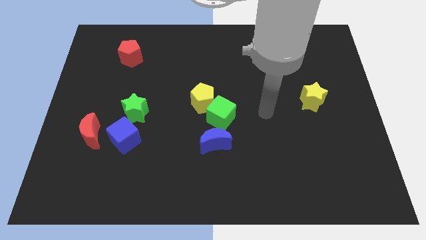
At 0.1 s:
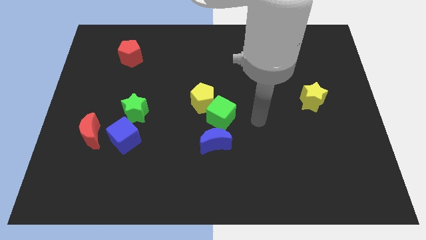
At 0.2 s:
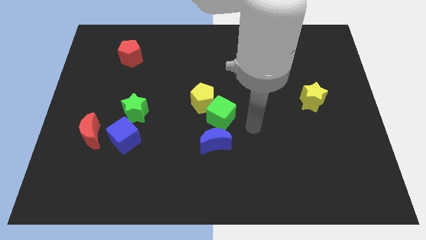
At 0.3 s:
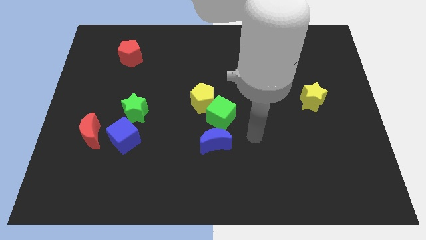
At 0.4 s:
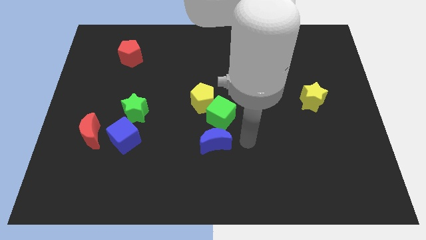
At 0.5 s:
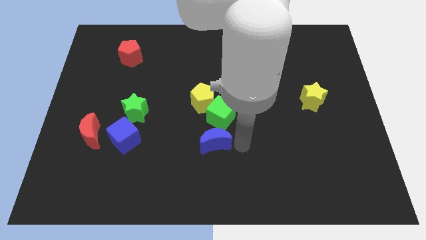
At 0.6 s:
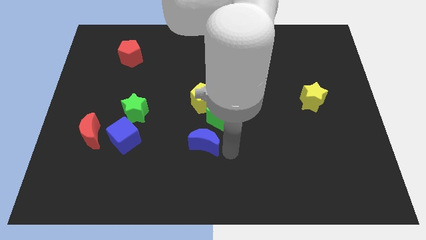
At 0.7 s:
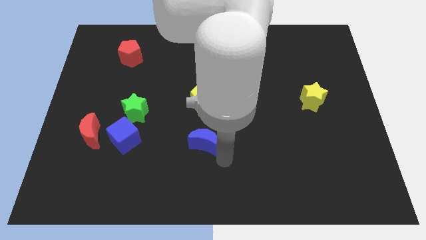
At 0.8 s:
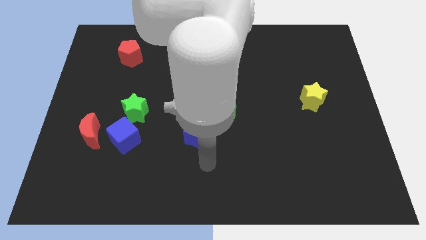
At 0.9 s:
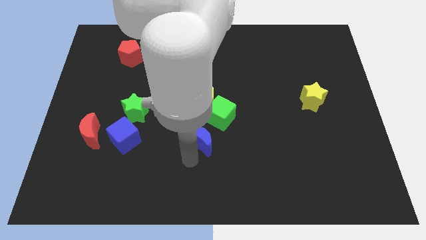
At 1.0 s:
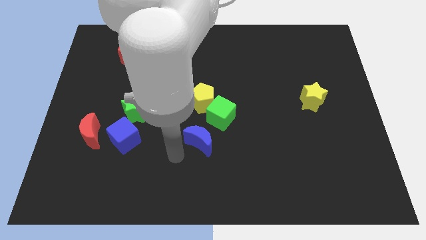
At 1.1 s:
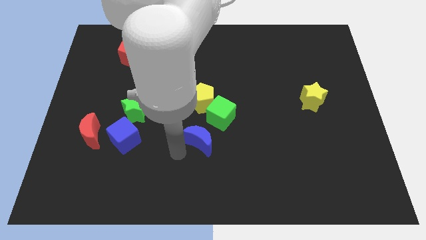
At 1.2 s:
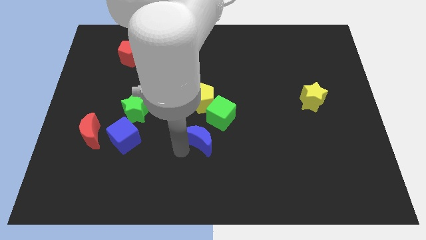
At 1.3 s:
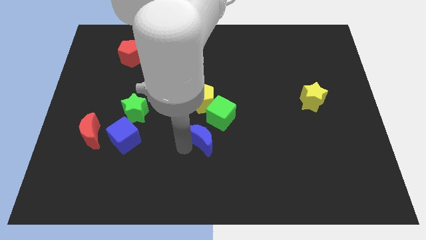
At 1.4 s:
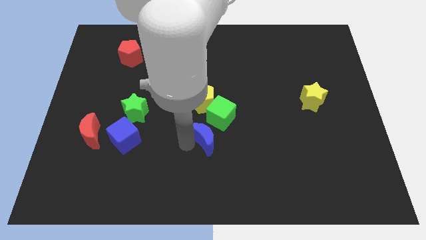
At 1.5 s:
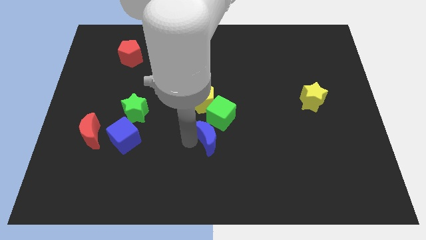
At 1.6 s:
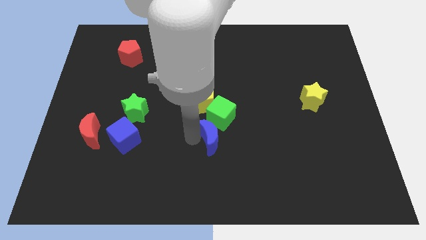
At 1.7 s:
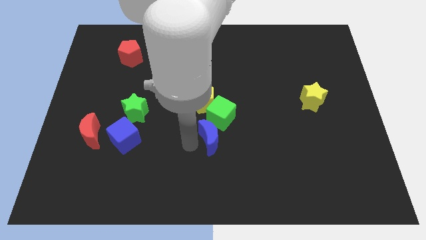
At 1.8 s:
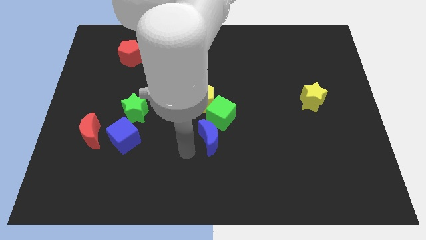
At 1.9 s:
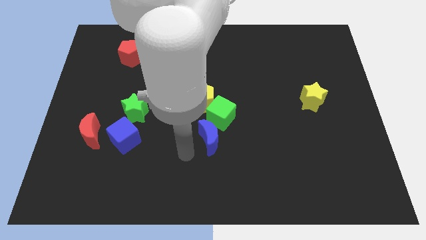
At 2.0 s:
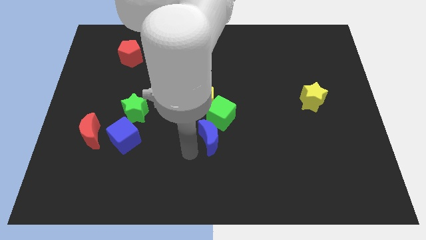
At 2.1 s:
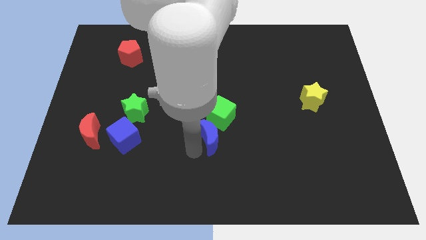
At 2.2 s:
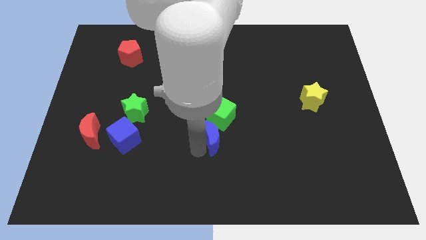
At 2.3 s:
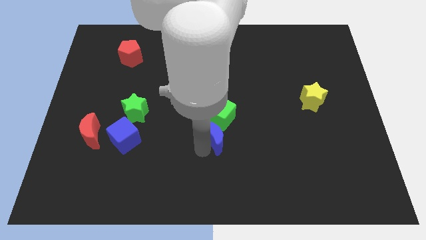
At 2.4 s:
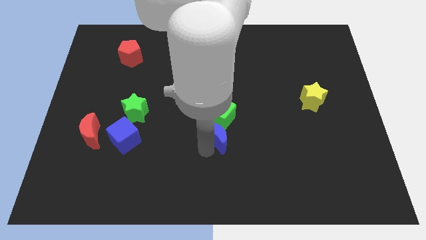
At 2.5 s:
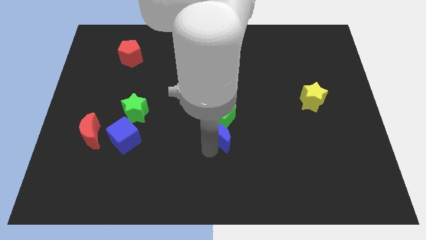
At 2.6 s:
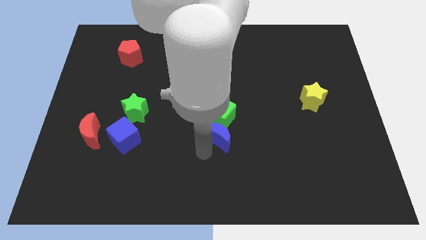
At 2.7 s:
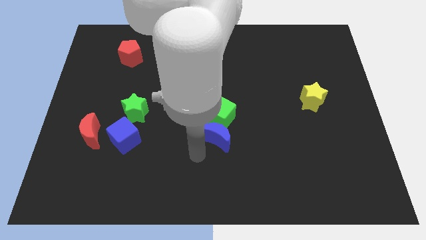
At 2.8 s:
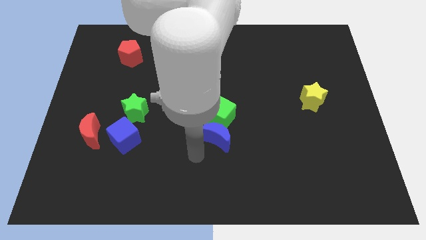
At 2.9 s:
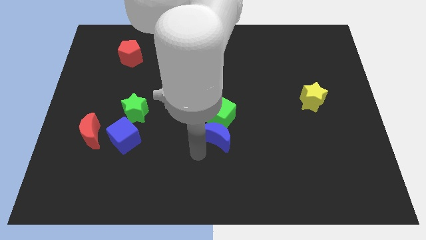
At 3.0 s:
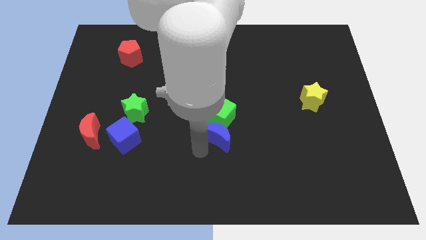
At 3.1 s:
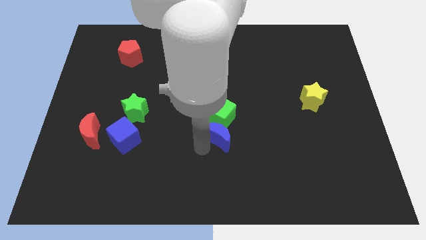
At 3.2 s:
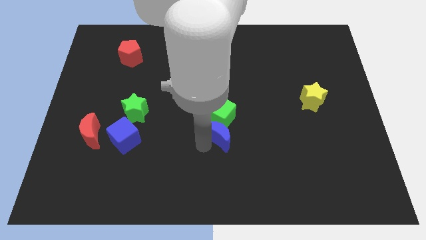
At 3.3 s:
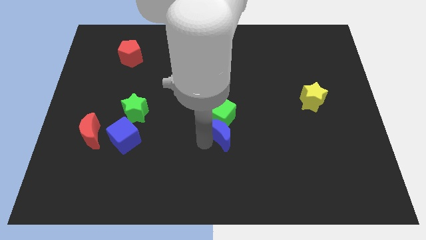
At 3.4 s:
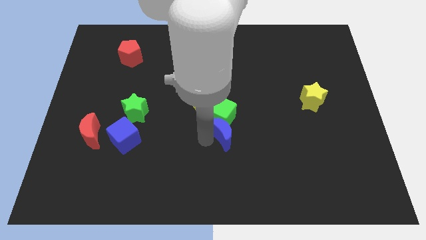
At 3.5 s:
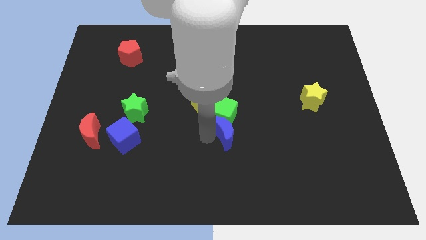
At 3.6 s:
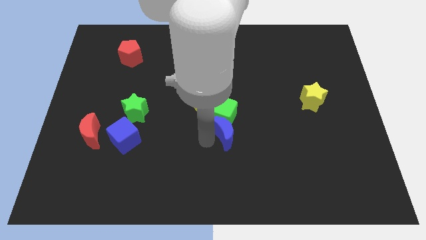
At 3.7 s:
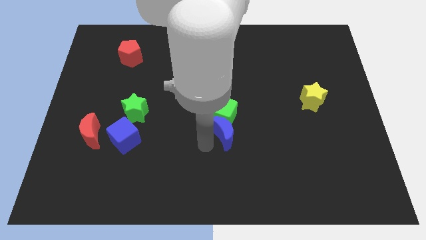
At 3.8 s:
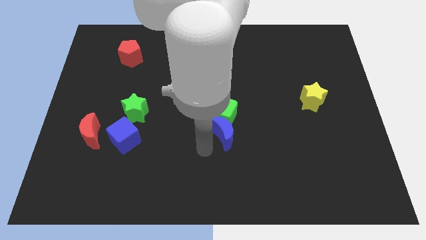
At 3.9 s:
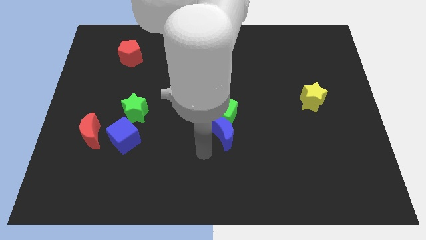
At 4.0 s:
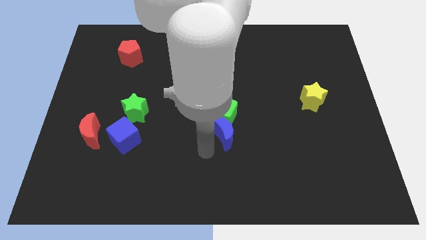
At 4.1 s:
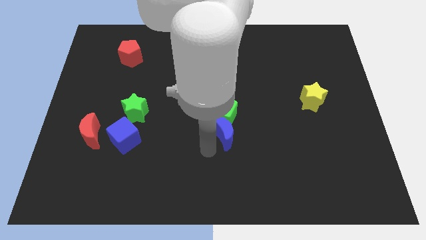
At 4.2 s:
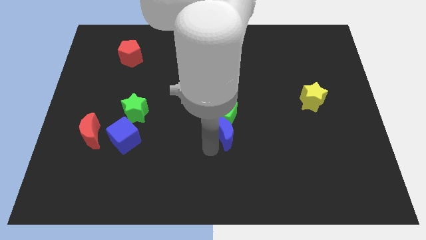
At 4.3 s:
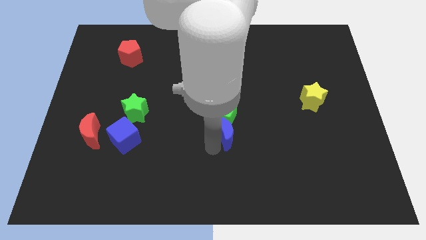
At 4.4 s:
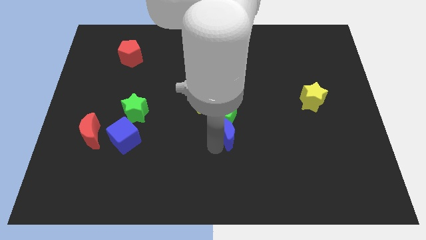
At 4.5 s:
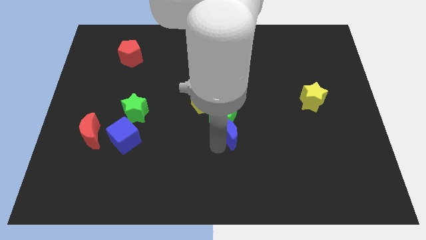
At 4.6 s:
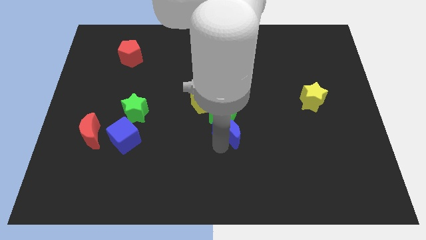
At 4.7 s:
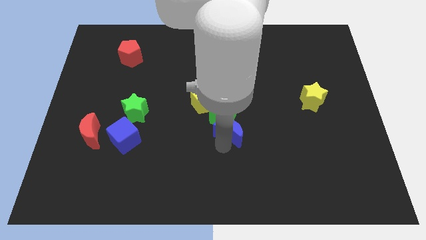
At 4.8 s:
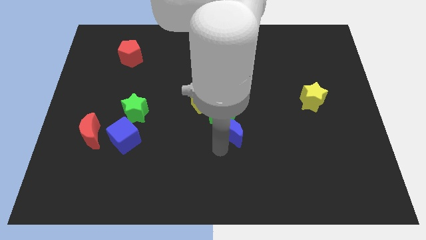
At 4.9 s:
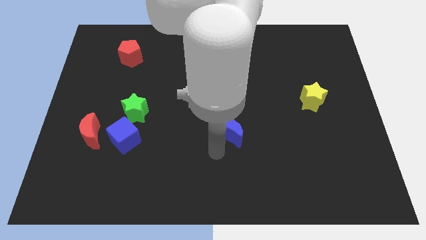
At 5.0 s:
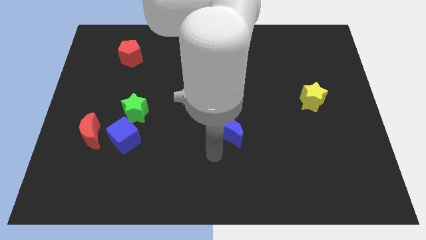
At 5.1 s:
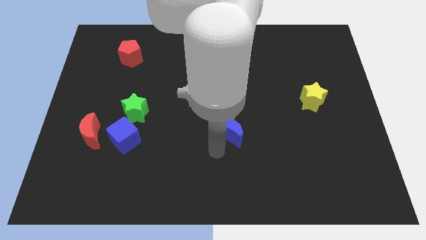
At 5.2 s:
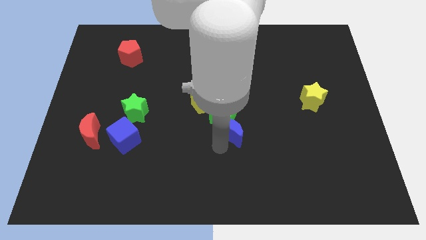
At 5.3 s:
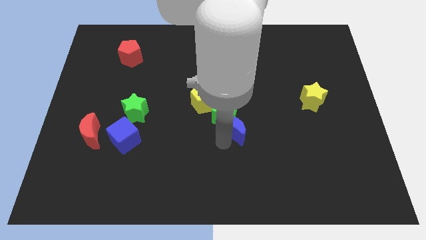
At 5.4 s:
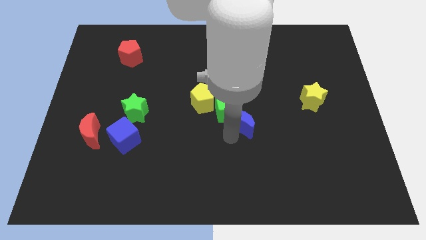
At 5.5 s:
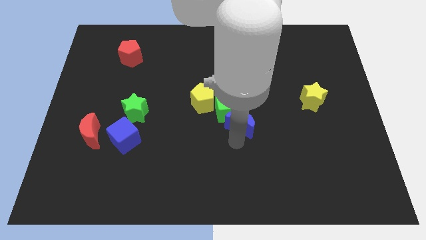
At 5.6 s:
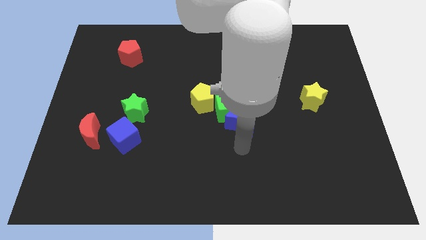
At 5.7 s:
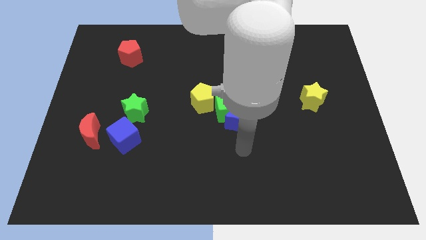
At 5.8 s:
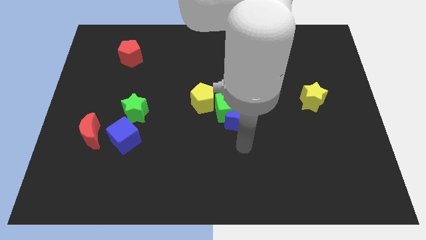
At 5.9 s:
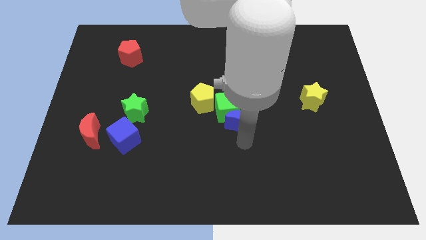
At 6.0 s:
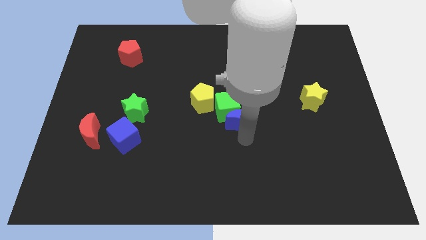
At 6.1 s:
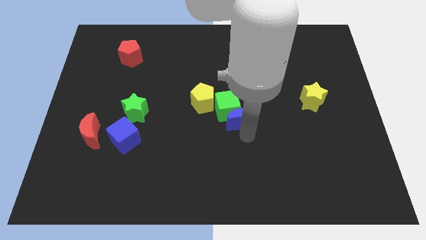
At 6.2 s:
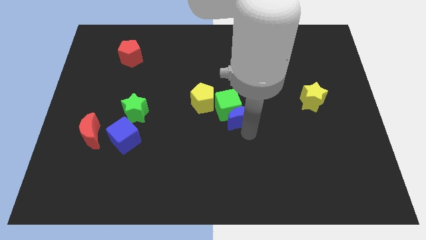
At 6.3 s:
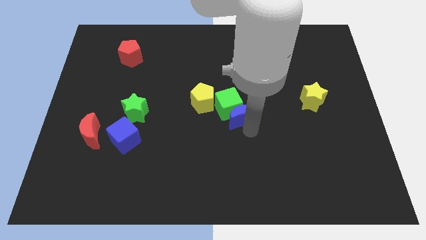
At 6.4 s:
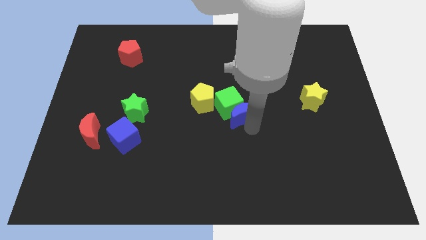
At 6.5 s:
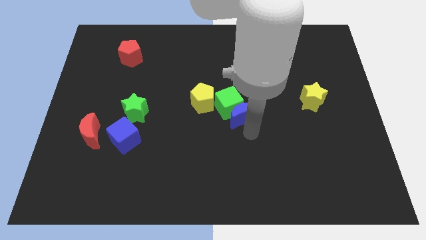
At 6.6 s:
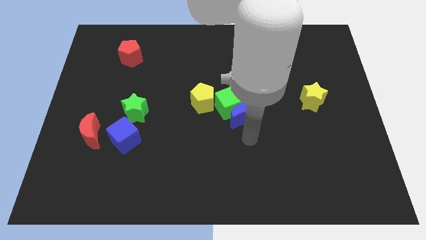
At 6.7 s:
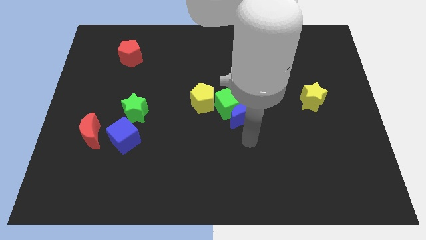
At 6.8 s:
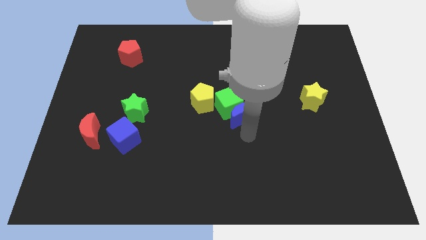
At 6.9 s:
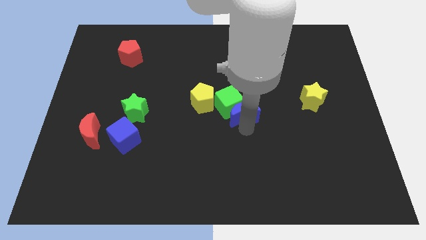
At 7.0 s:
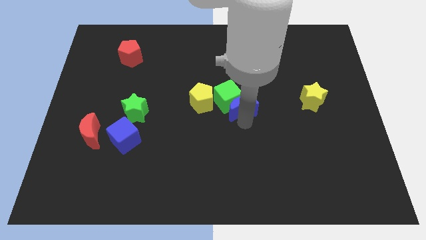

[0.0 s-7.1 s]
slightly push the blue moon upwards

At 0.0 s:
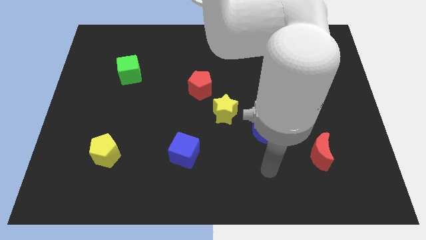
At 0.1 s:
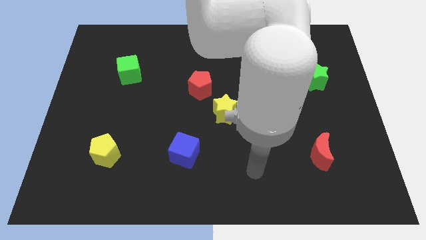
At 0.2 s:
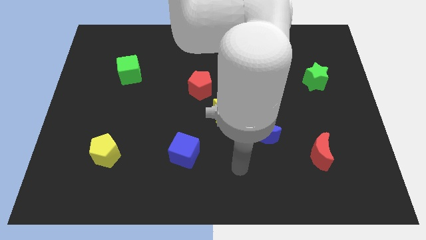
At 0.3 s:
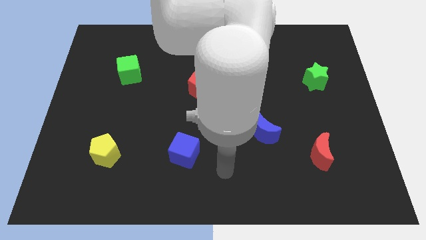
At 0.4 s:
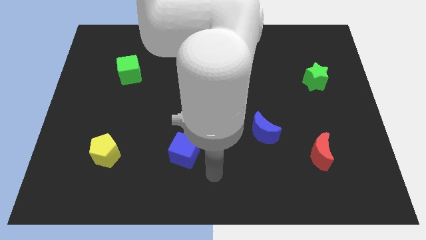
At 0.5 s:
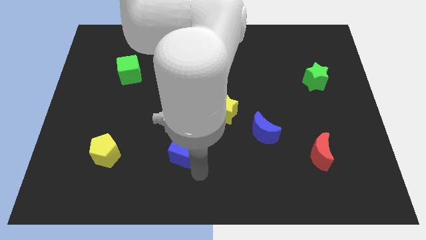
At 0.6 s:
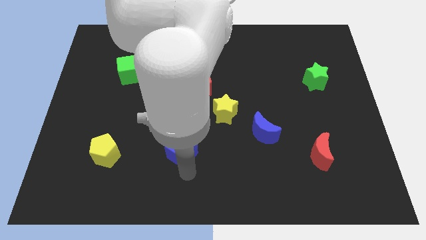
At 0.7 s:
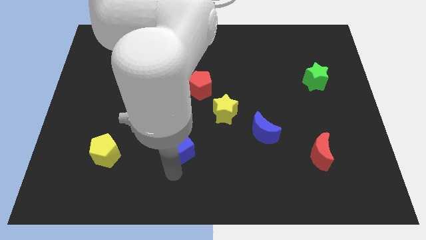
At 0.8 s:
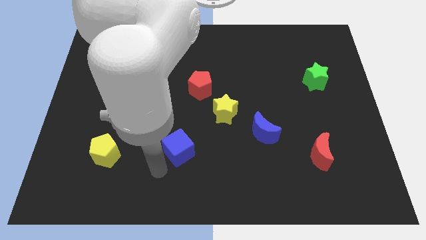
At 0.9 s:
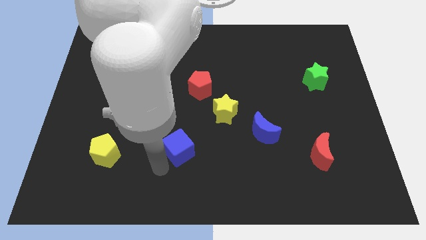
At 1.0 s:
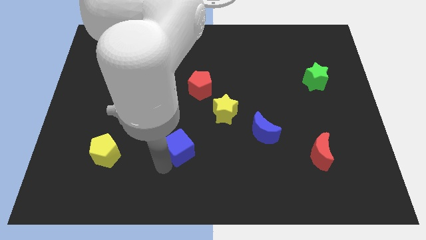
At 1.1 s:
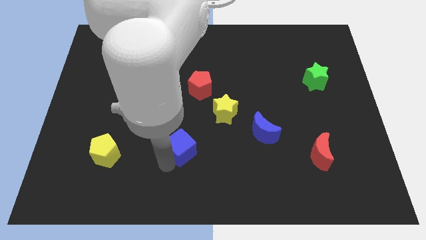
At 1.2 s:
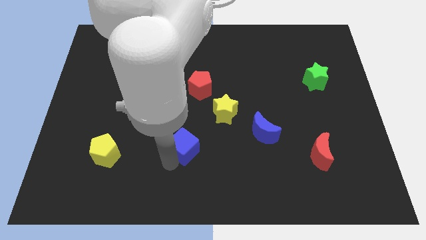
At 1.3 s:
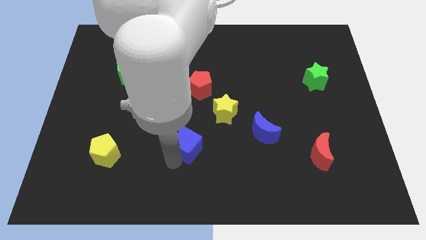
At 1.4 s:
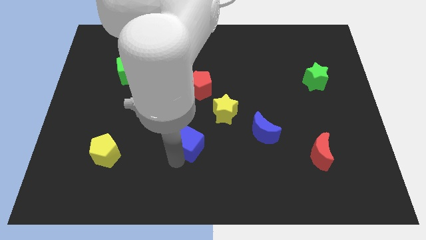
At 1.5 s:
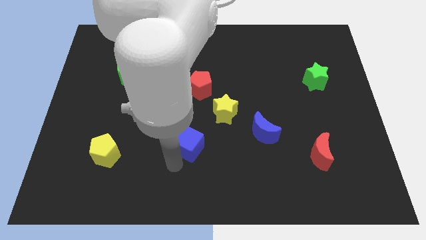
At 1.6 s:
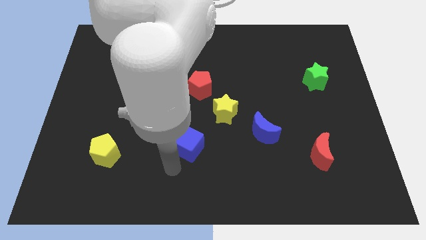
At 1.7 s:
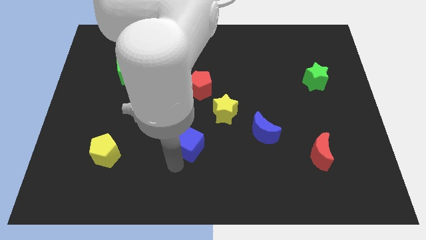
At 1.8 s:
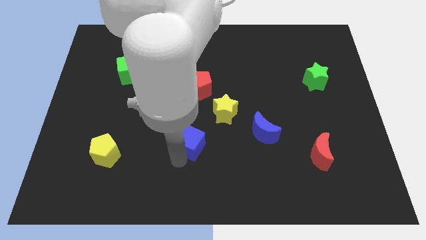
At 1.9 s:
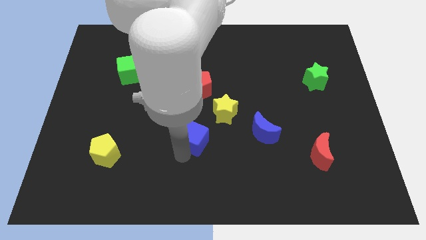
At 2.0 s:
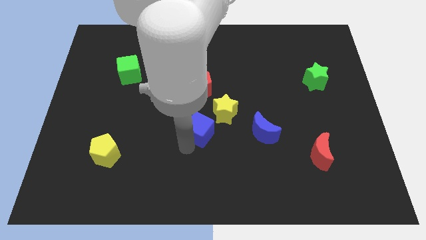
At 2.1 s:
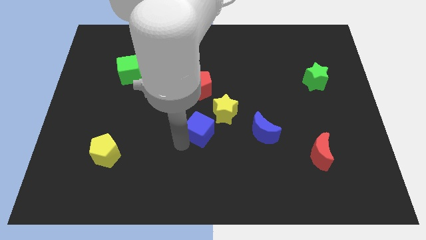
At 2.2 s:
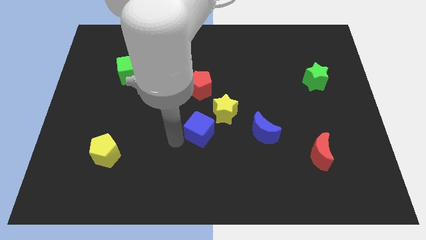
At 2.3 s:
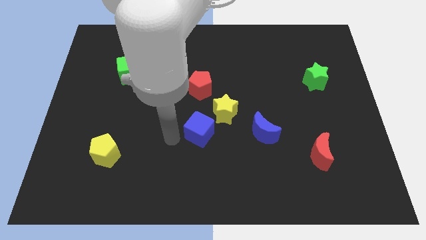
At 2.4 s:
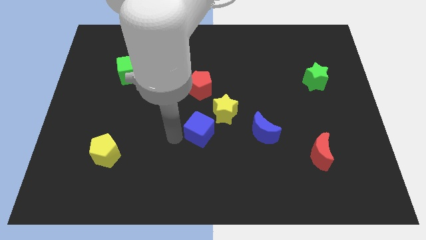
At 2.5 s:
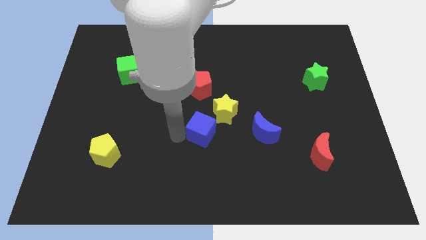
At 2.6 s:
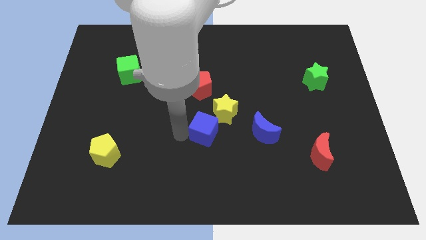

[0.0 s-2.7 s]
push the blue cube a little bit diagonally upwards and to the right
